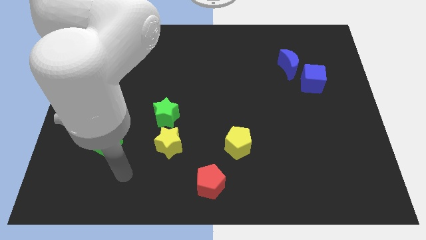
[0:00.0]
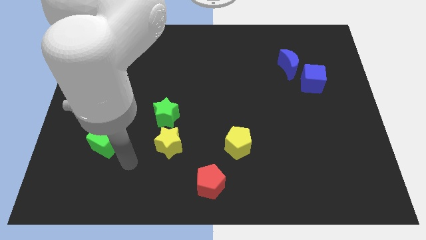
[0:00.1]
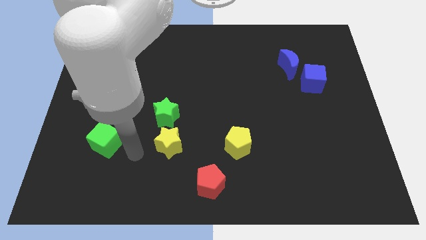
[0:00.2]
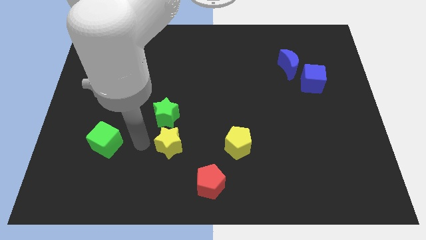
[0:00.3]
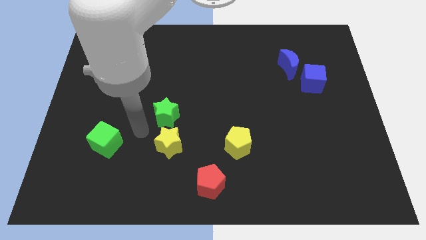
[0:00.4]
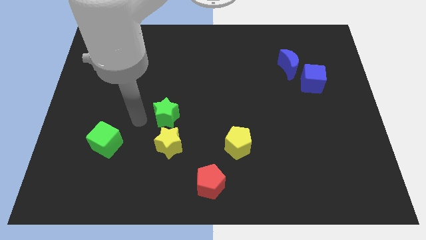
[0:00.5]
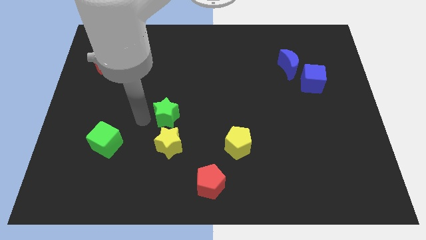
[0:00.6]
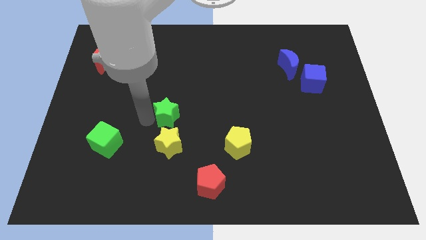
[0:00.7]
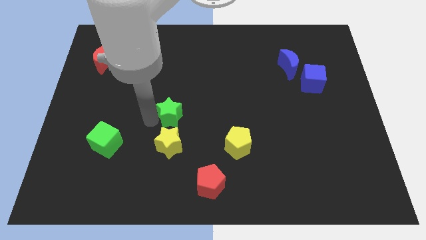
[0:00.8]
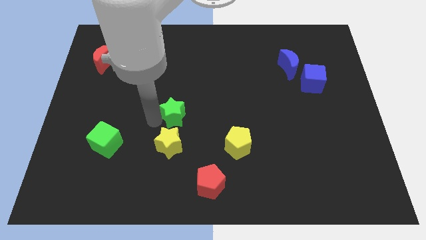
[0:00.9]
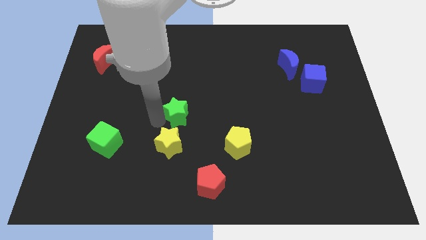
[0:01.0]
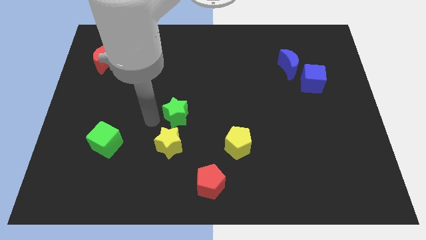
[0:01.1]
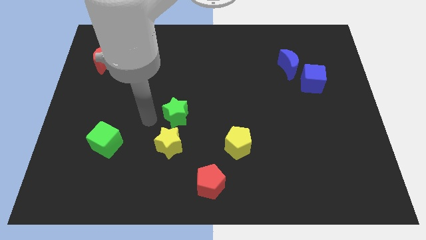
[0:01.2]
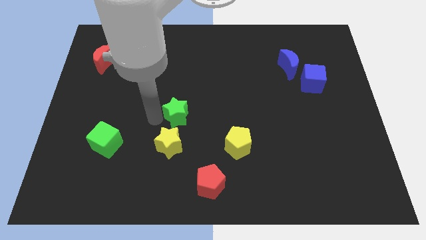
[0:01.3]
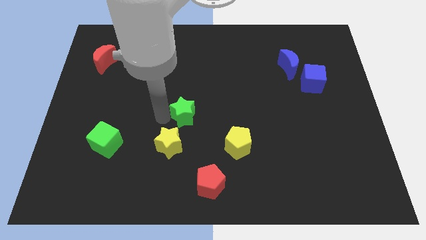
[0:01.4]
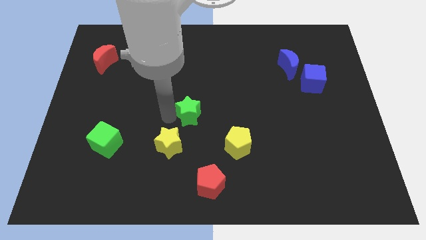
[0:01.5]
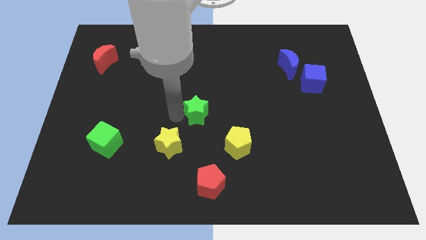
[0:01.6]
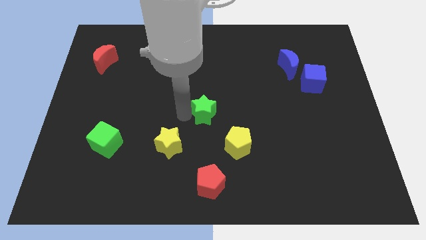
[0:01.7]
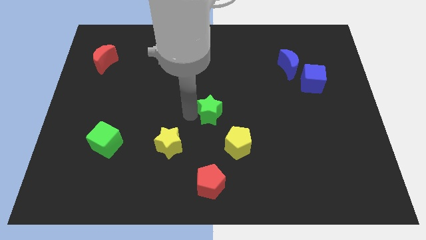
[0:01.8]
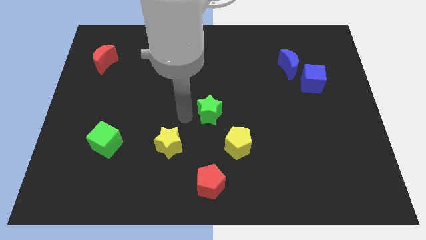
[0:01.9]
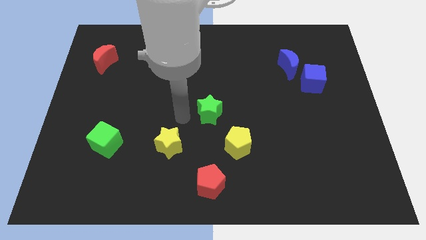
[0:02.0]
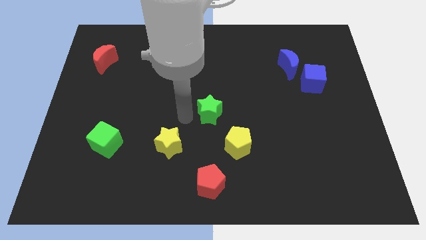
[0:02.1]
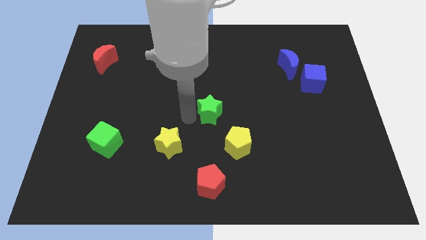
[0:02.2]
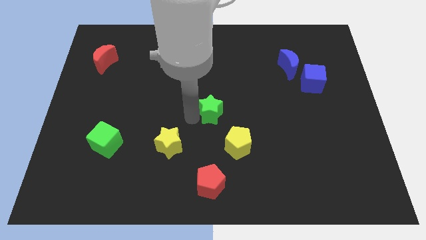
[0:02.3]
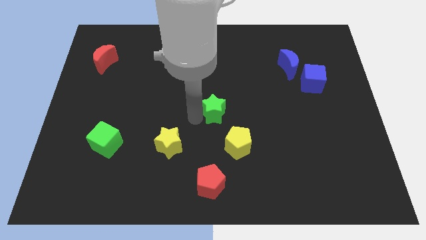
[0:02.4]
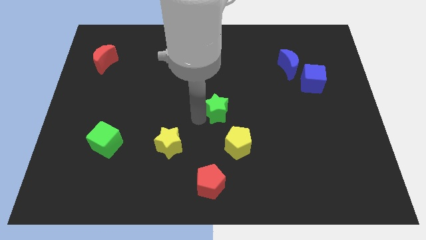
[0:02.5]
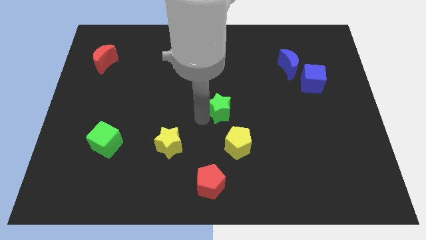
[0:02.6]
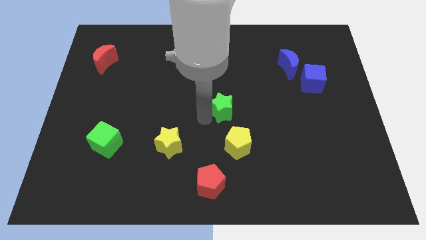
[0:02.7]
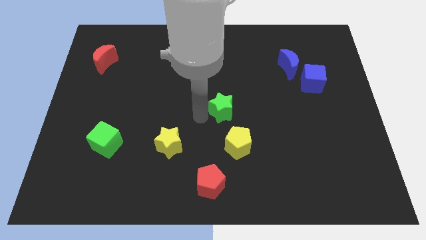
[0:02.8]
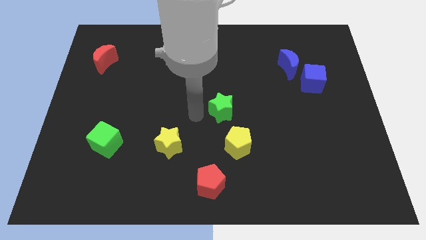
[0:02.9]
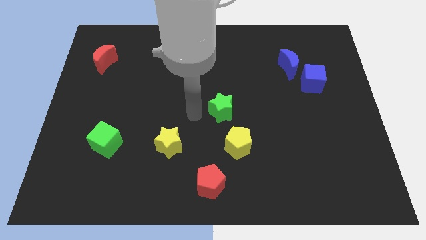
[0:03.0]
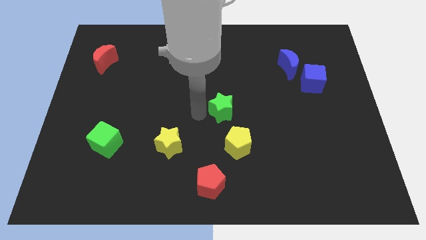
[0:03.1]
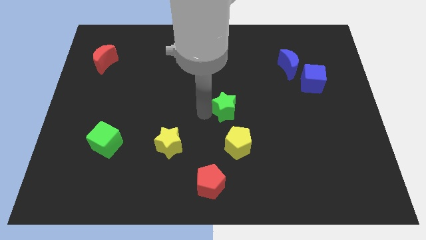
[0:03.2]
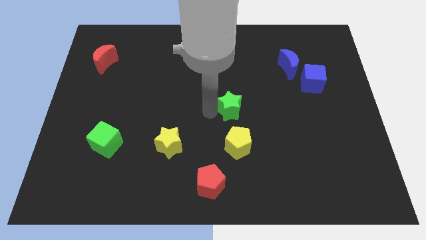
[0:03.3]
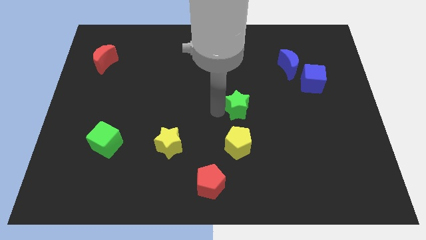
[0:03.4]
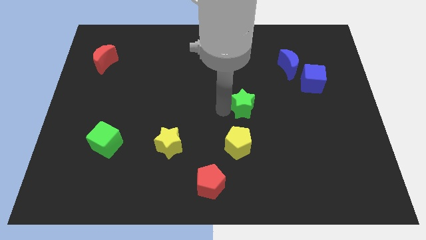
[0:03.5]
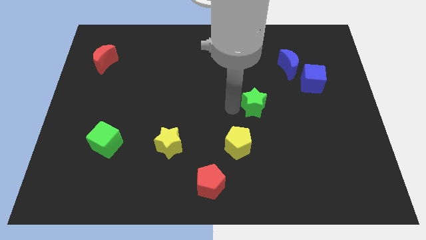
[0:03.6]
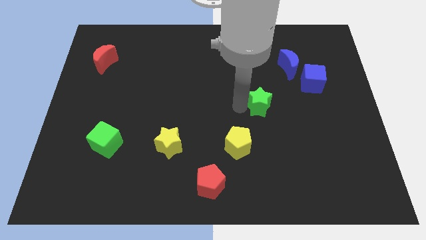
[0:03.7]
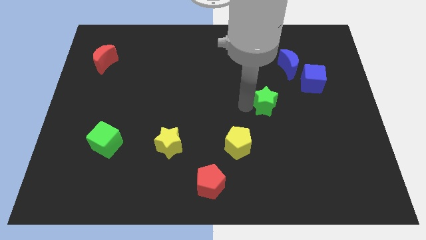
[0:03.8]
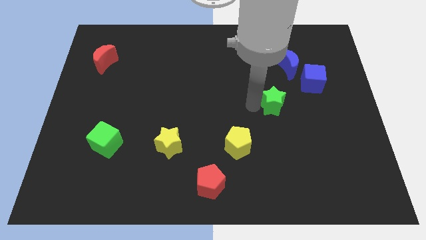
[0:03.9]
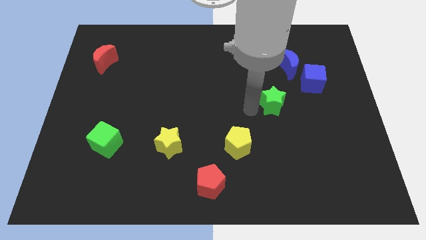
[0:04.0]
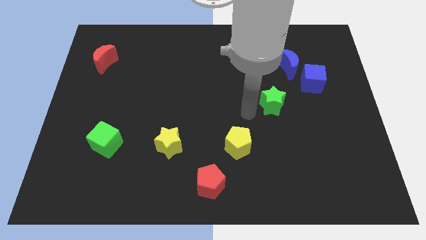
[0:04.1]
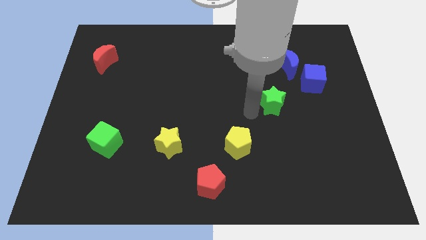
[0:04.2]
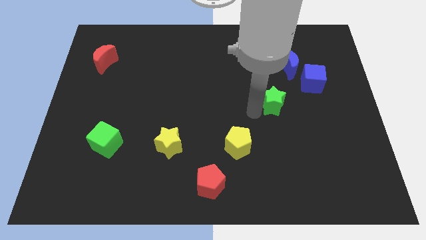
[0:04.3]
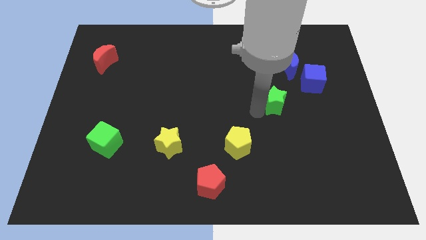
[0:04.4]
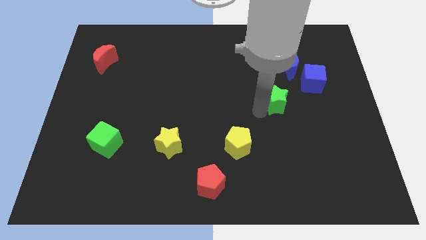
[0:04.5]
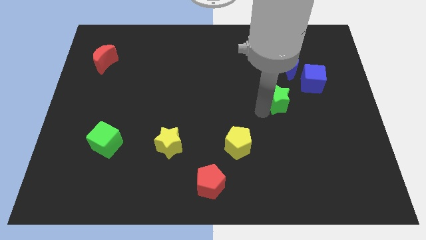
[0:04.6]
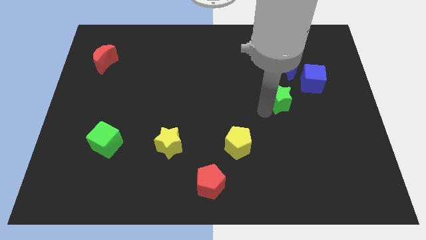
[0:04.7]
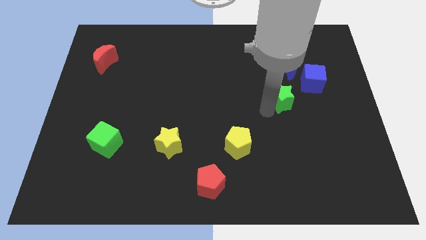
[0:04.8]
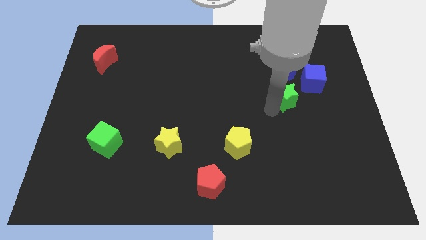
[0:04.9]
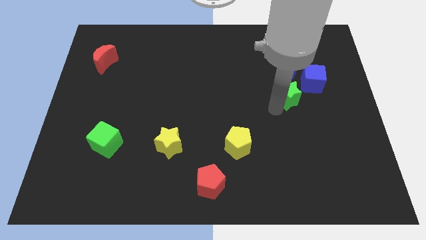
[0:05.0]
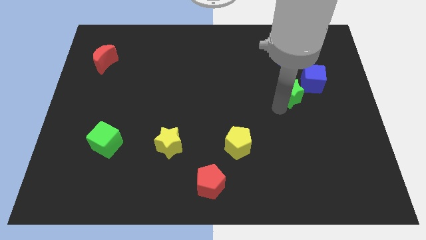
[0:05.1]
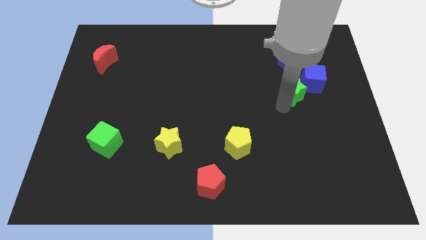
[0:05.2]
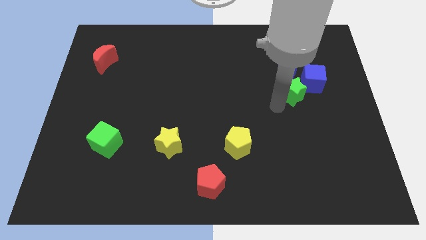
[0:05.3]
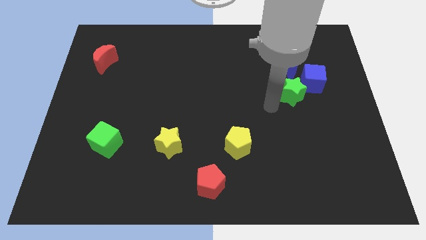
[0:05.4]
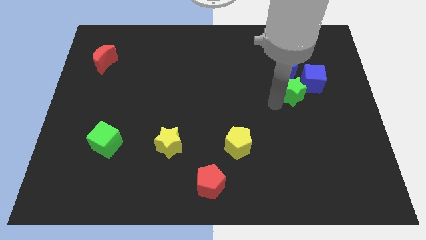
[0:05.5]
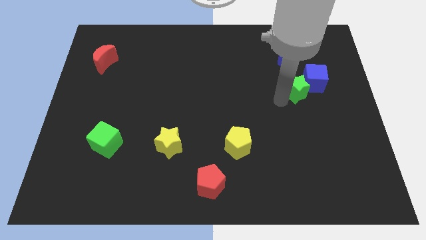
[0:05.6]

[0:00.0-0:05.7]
slide the green star to the blue cube

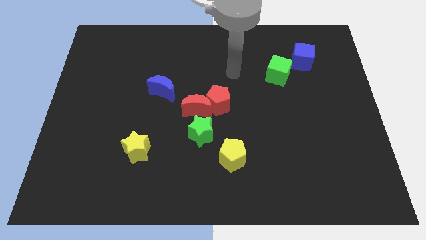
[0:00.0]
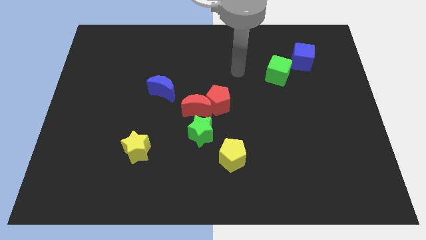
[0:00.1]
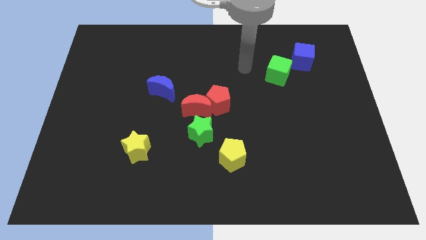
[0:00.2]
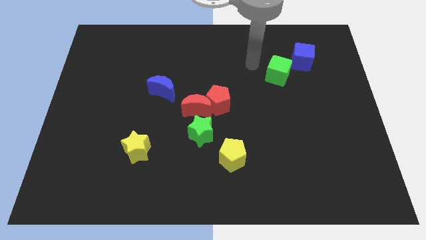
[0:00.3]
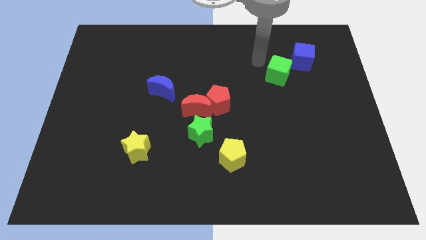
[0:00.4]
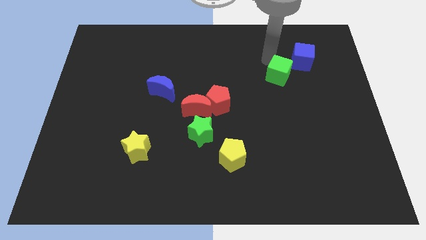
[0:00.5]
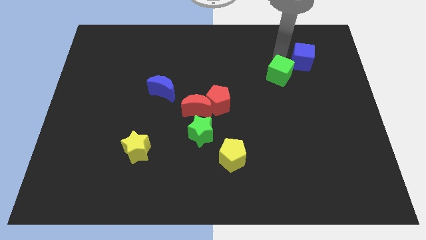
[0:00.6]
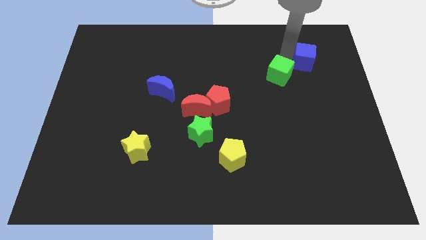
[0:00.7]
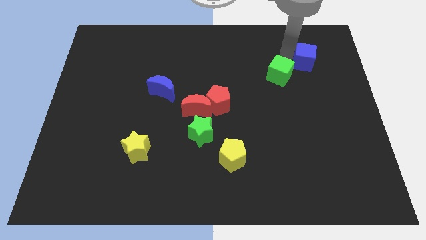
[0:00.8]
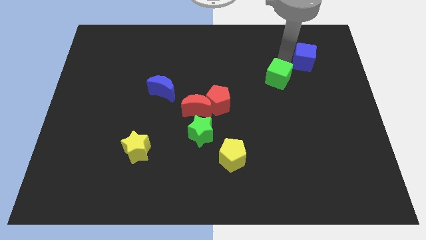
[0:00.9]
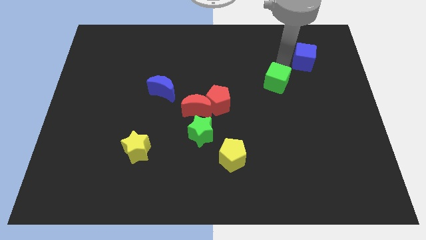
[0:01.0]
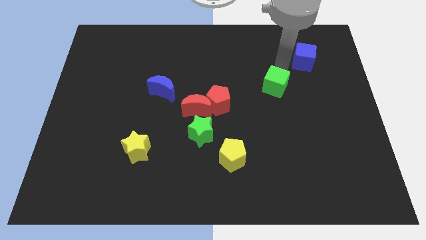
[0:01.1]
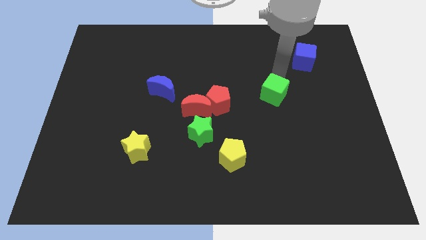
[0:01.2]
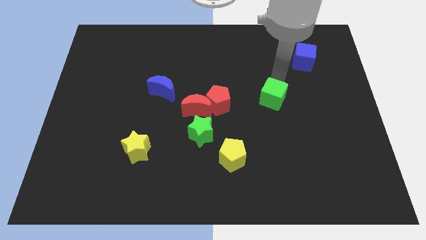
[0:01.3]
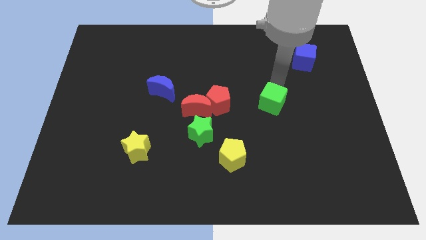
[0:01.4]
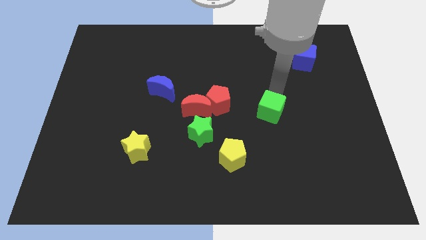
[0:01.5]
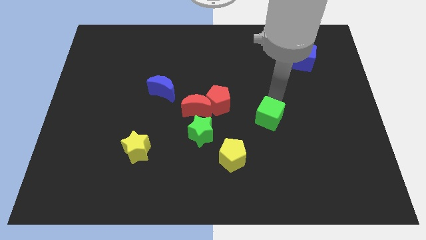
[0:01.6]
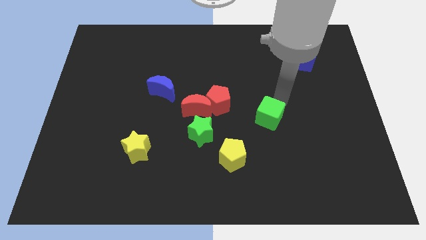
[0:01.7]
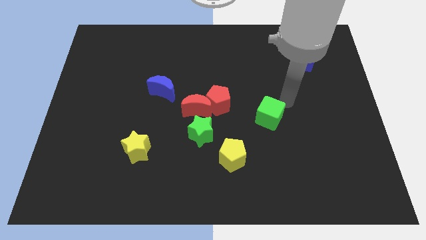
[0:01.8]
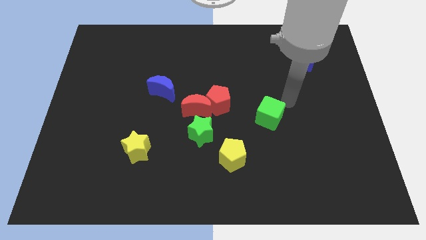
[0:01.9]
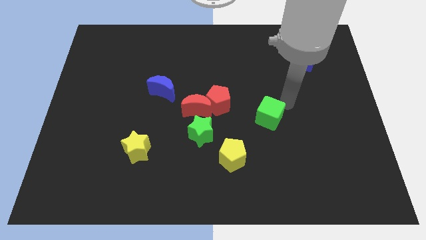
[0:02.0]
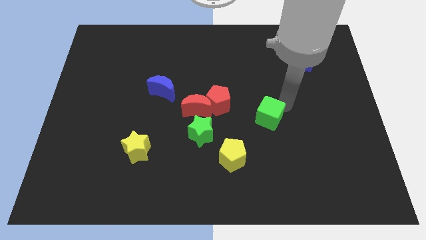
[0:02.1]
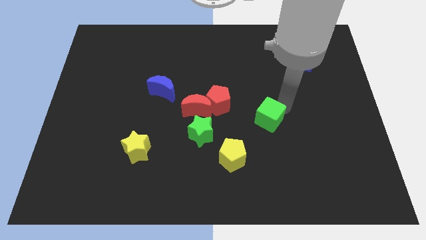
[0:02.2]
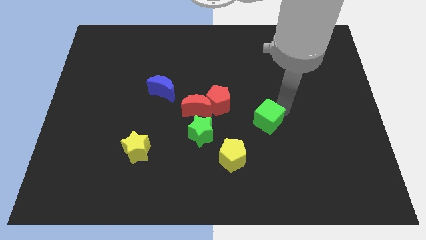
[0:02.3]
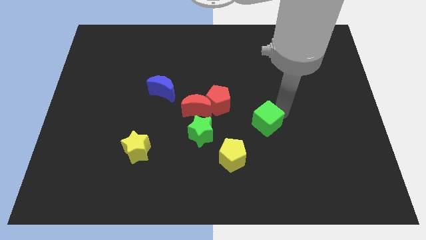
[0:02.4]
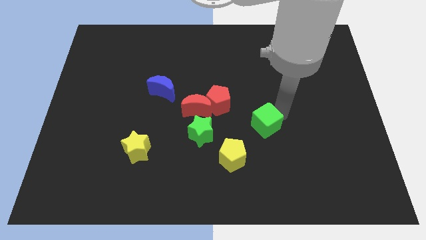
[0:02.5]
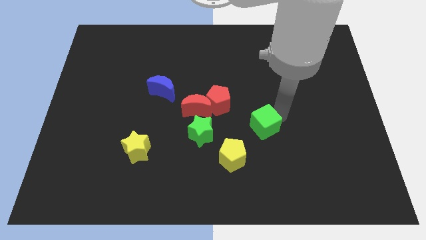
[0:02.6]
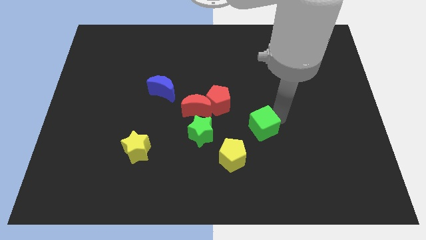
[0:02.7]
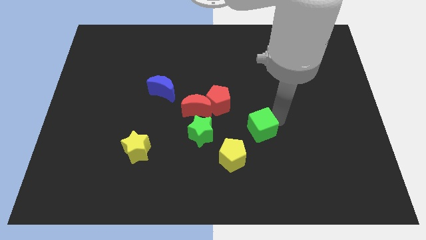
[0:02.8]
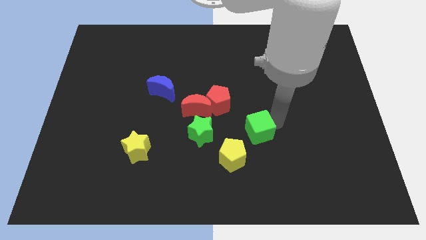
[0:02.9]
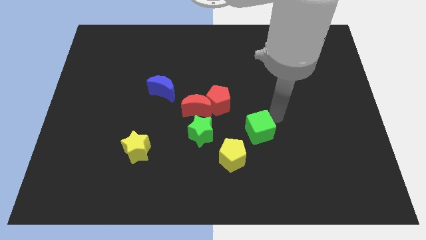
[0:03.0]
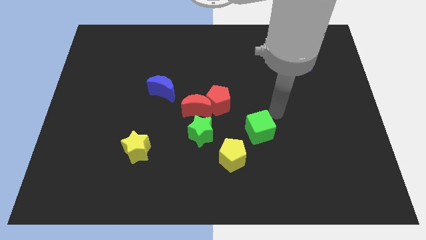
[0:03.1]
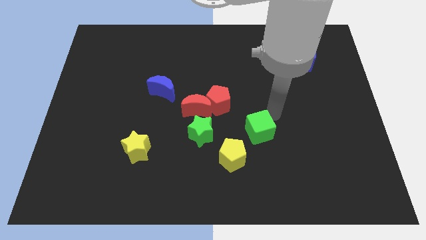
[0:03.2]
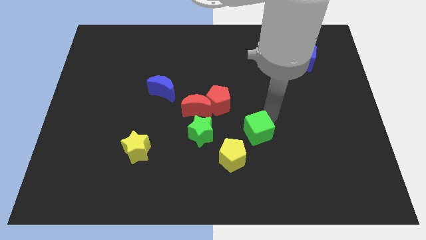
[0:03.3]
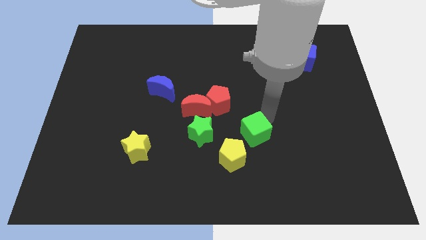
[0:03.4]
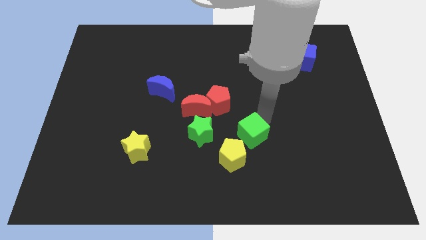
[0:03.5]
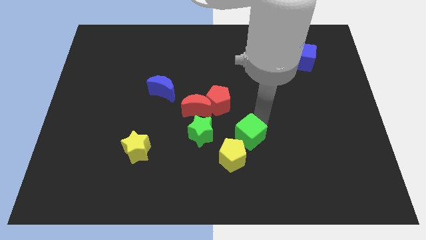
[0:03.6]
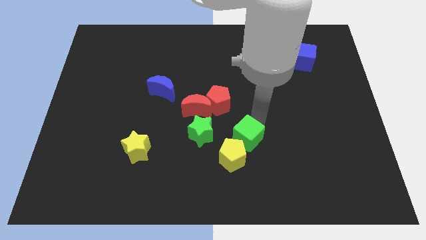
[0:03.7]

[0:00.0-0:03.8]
push the green cube to the yellow pentagon
